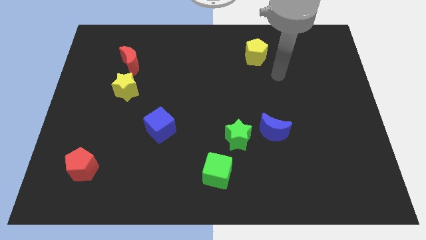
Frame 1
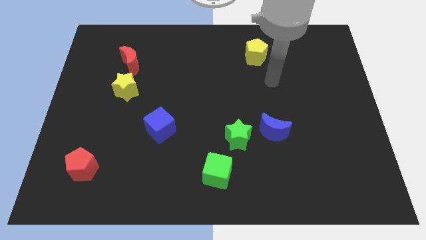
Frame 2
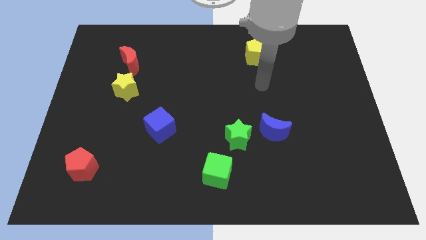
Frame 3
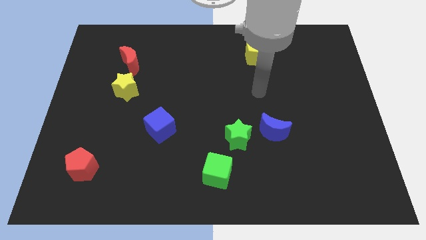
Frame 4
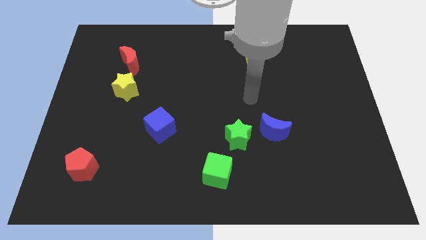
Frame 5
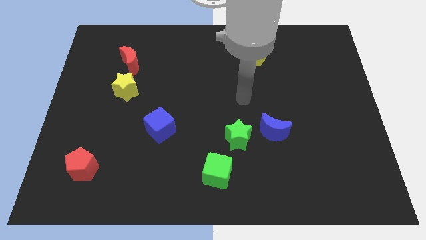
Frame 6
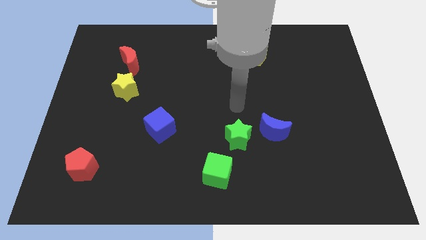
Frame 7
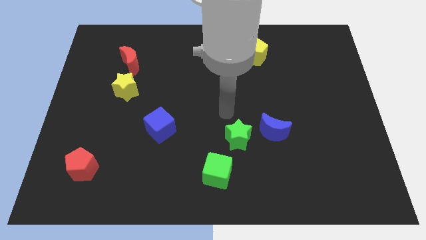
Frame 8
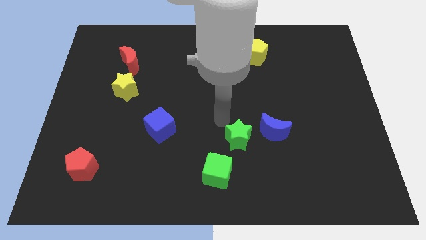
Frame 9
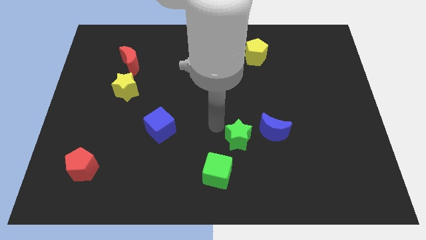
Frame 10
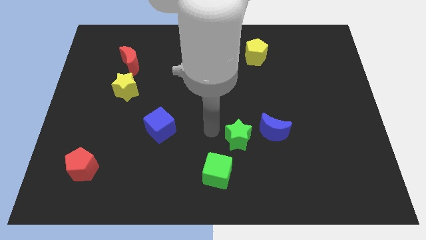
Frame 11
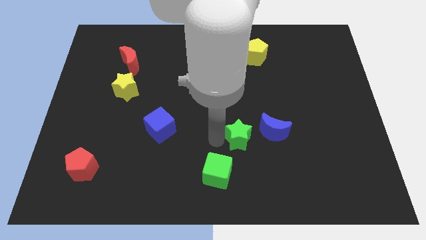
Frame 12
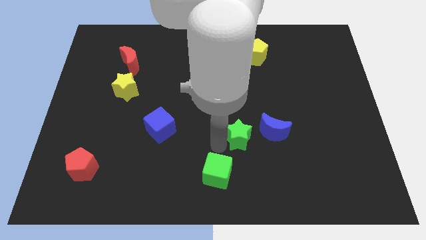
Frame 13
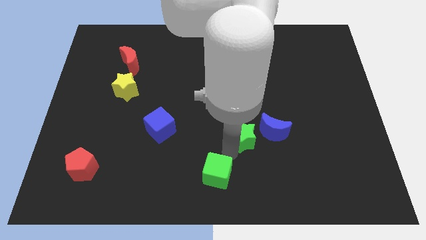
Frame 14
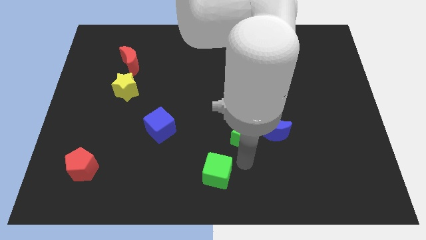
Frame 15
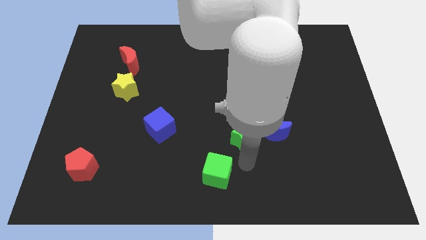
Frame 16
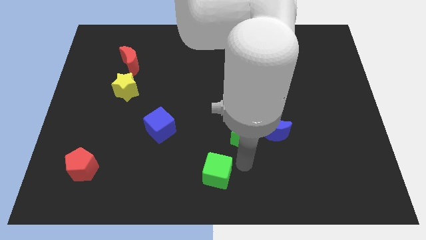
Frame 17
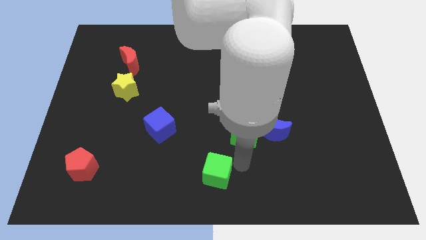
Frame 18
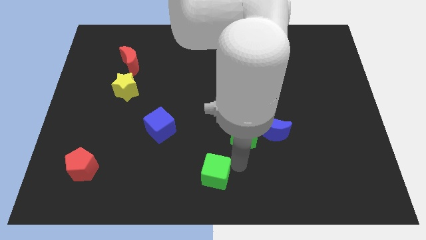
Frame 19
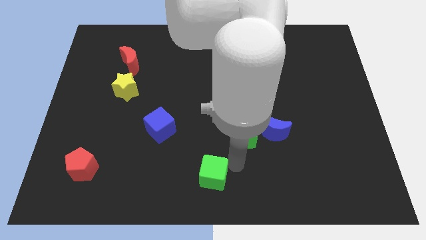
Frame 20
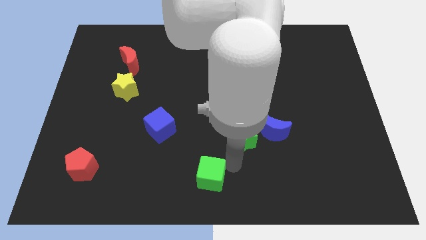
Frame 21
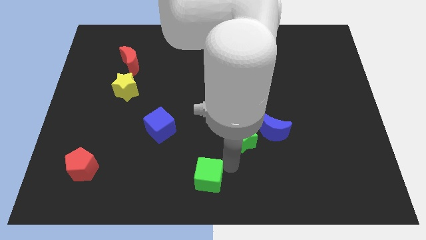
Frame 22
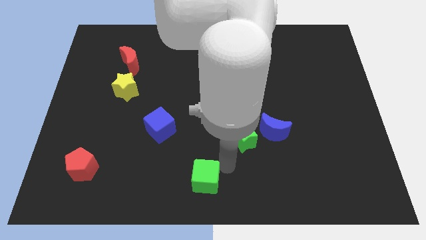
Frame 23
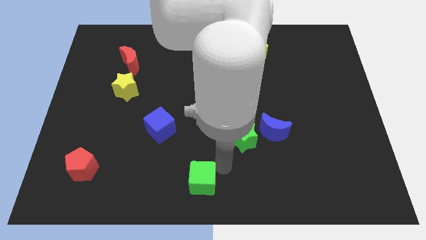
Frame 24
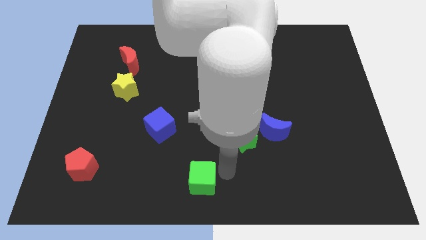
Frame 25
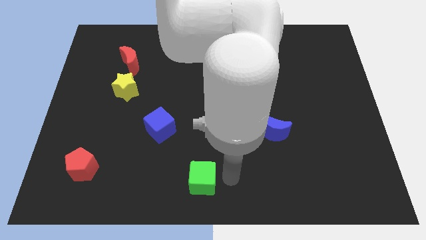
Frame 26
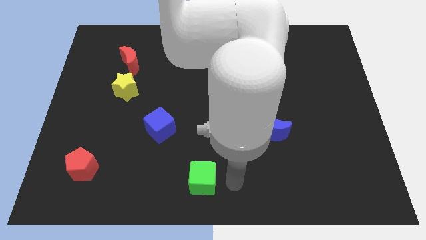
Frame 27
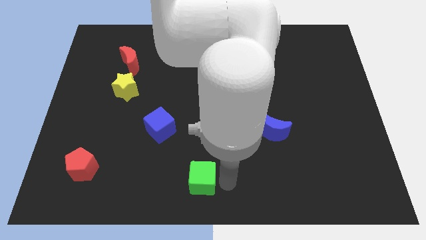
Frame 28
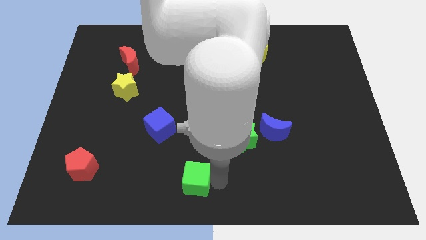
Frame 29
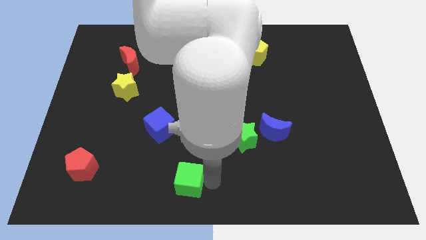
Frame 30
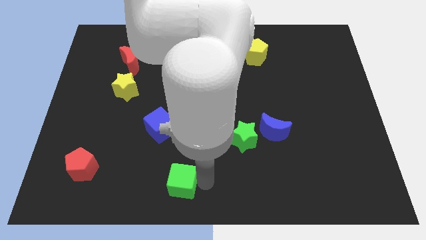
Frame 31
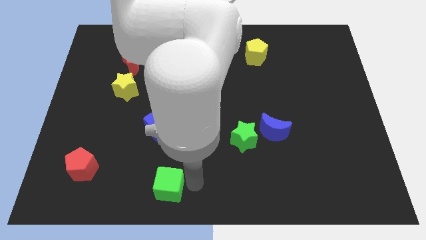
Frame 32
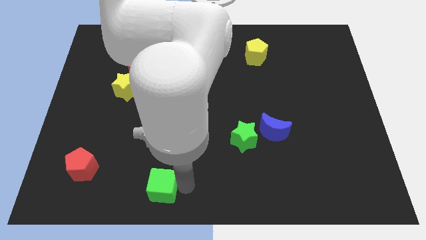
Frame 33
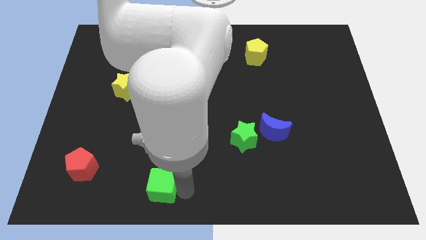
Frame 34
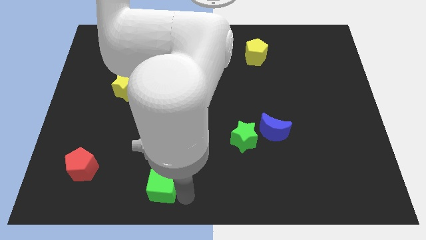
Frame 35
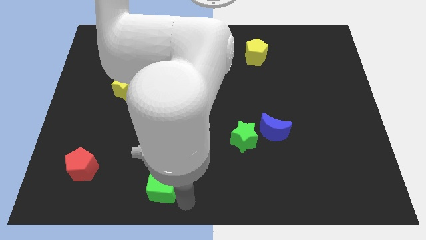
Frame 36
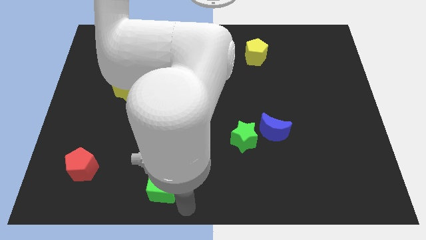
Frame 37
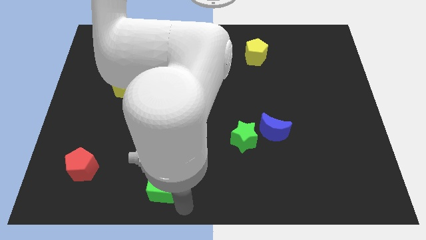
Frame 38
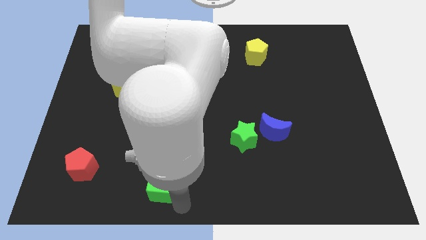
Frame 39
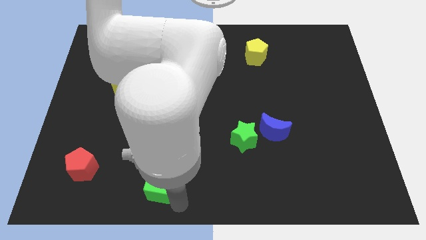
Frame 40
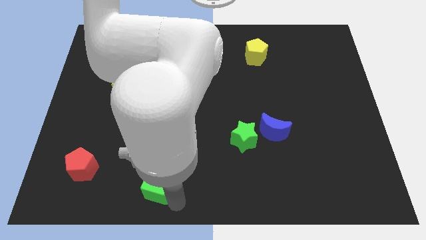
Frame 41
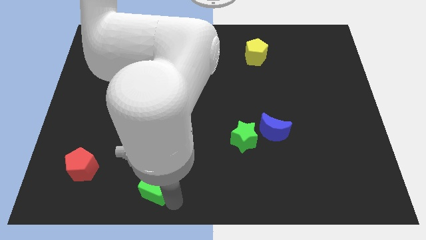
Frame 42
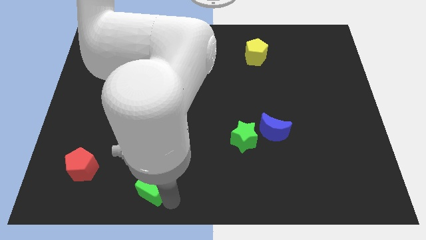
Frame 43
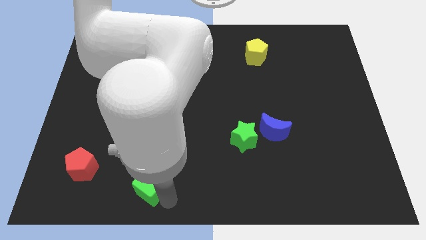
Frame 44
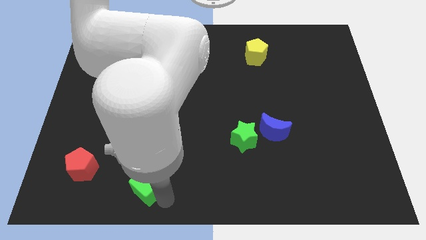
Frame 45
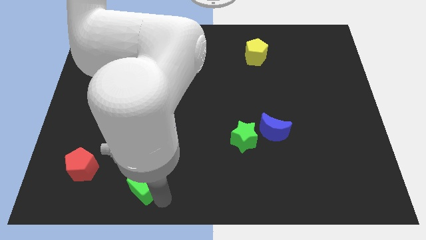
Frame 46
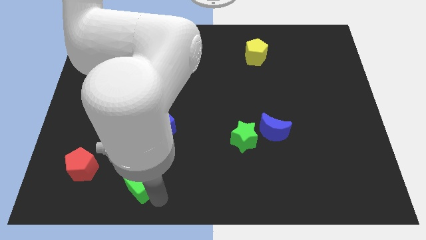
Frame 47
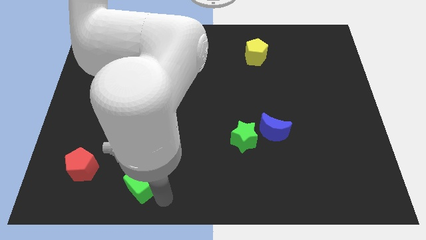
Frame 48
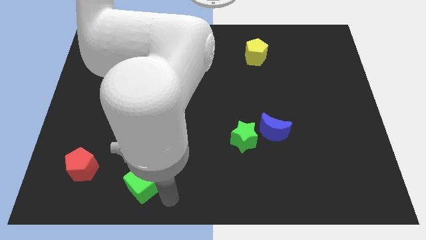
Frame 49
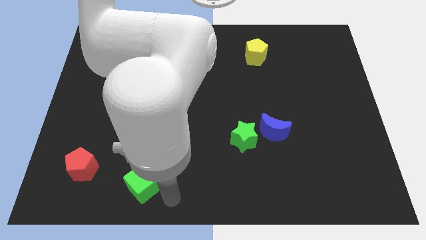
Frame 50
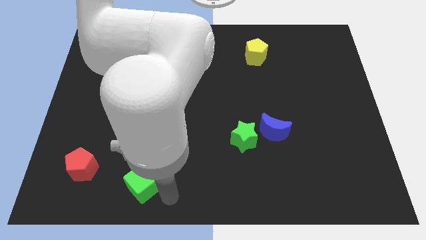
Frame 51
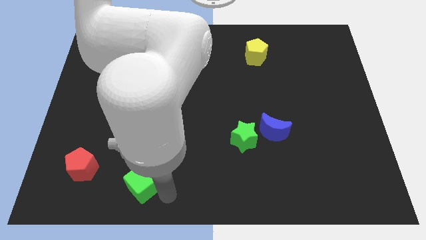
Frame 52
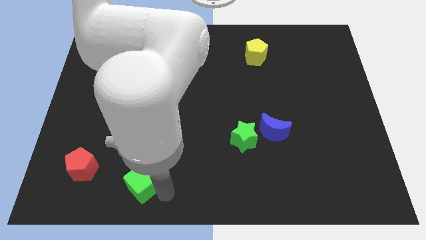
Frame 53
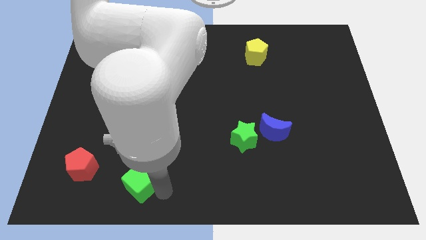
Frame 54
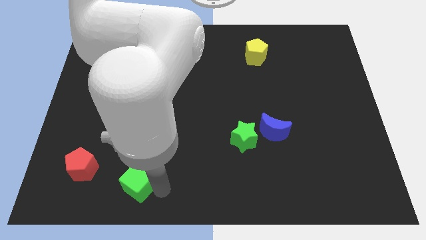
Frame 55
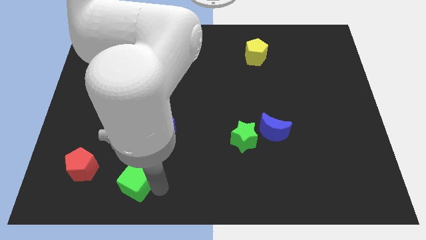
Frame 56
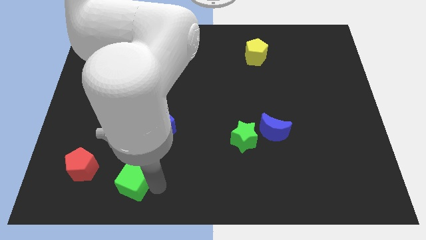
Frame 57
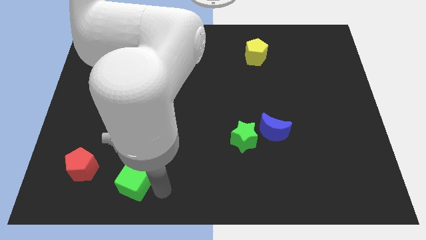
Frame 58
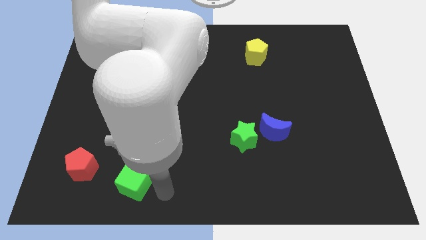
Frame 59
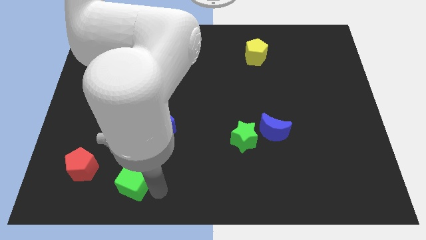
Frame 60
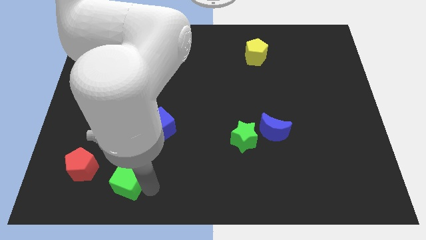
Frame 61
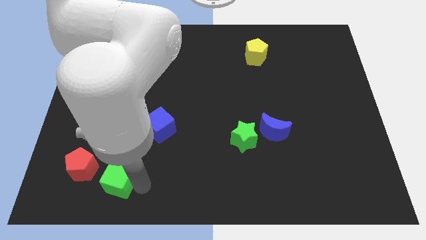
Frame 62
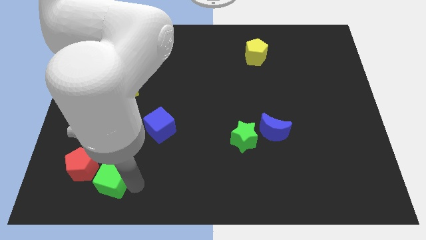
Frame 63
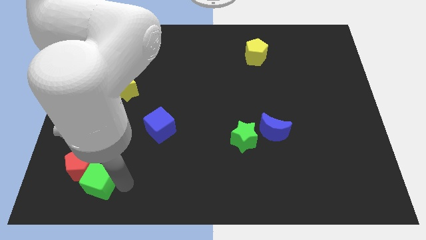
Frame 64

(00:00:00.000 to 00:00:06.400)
put the green cube towards the red pentagon

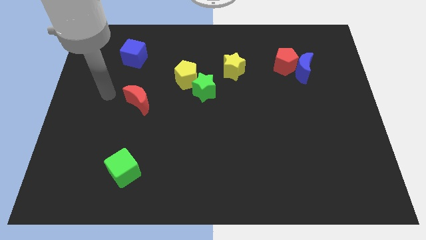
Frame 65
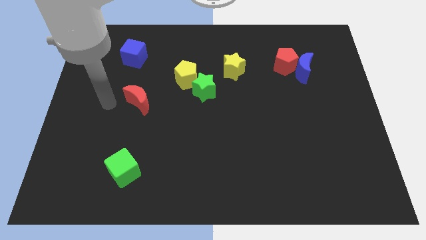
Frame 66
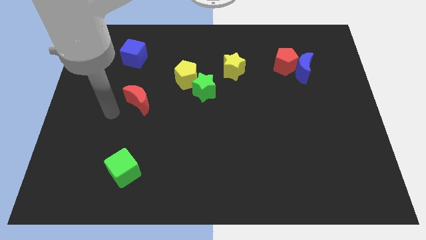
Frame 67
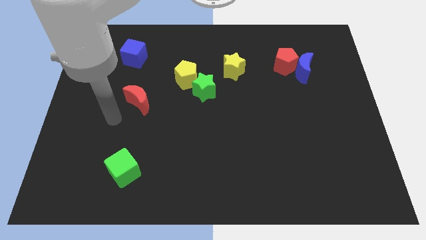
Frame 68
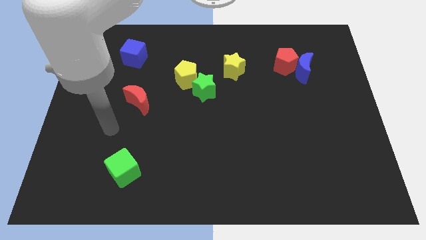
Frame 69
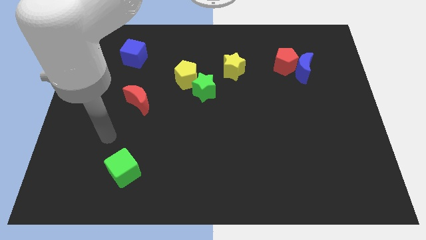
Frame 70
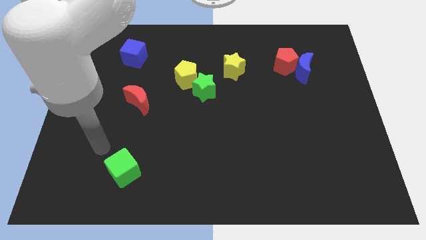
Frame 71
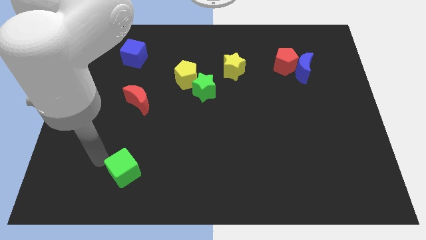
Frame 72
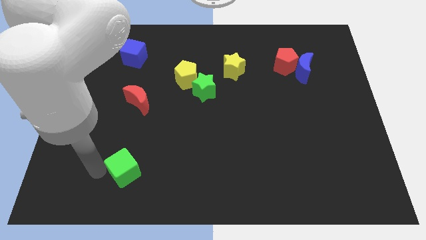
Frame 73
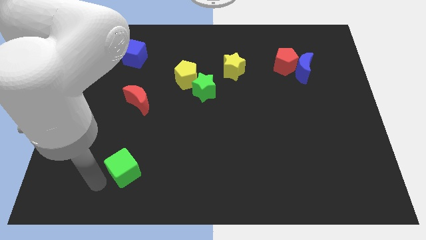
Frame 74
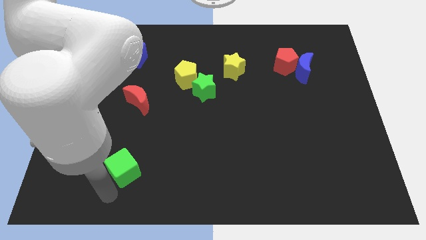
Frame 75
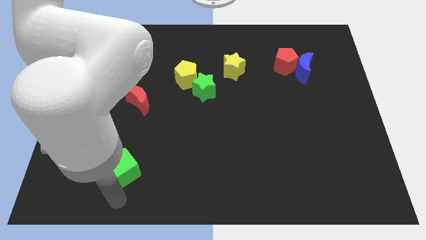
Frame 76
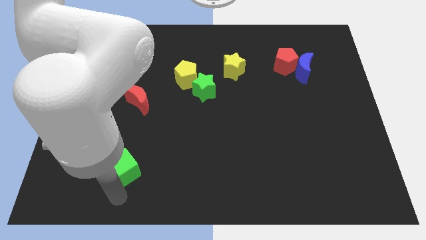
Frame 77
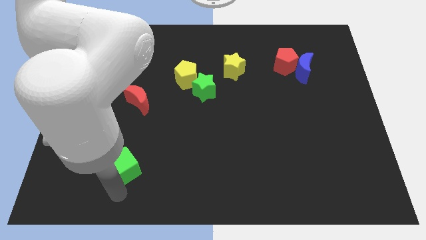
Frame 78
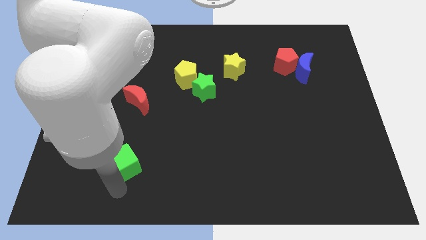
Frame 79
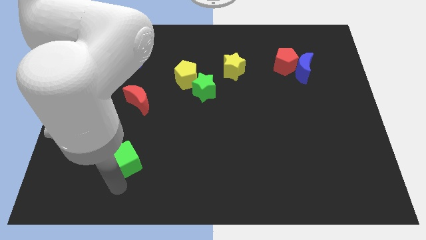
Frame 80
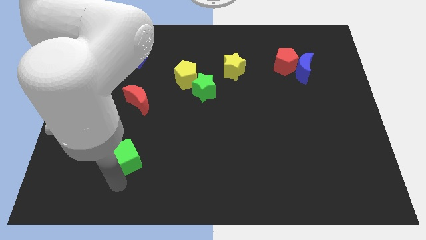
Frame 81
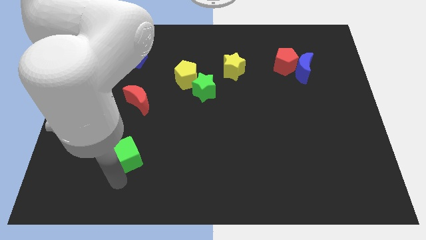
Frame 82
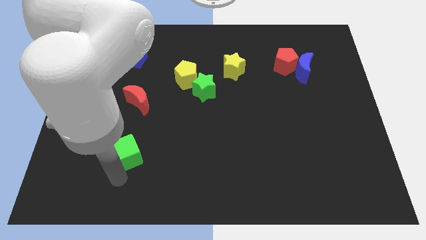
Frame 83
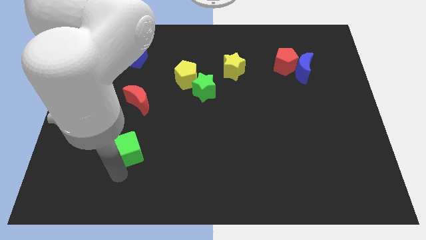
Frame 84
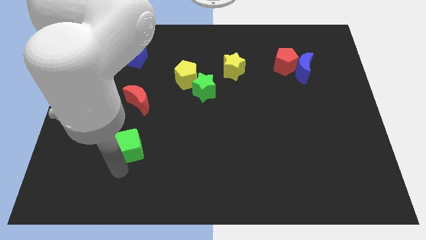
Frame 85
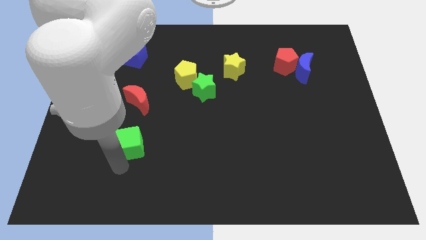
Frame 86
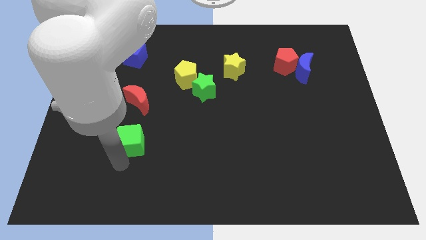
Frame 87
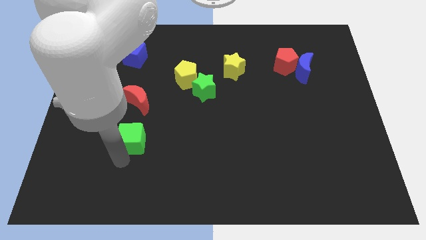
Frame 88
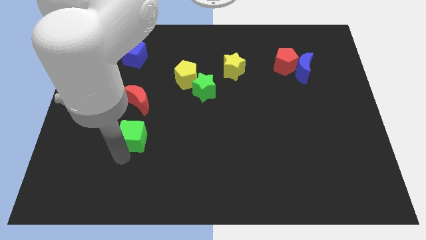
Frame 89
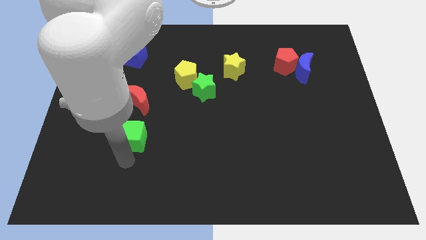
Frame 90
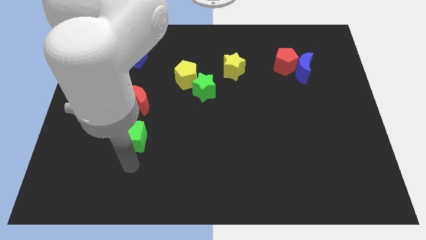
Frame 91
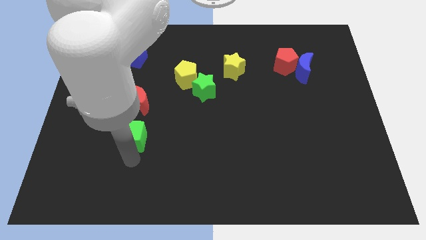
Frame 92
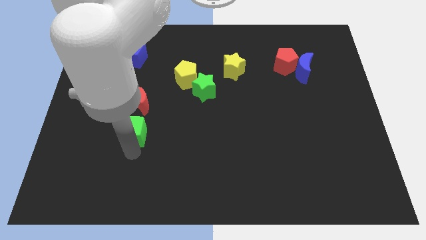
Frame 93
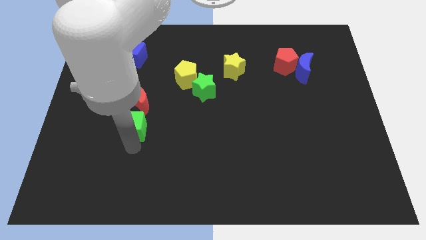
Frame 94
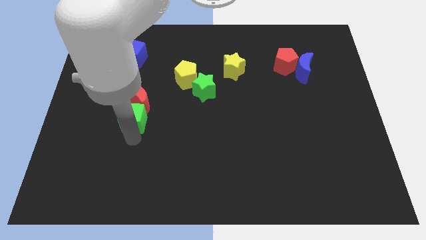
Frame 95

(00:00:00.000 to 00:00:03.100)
slide the green cube towards the red moon
